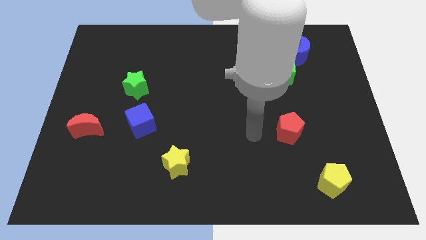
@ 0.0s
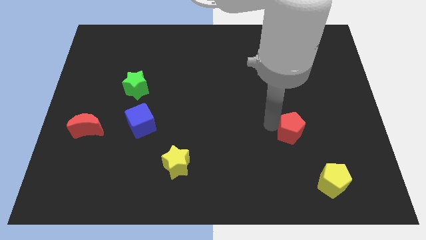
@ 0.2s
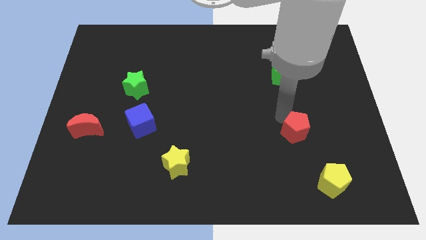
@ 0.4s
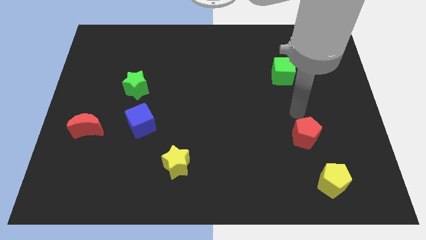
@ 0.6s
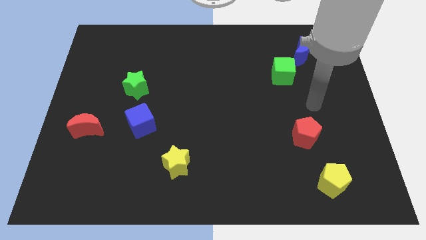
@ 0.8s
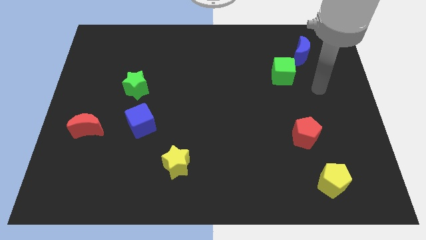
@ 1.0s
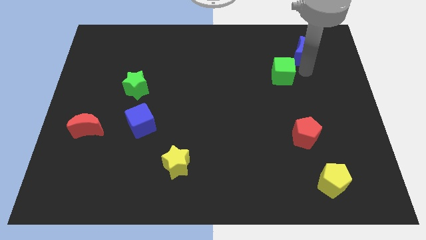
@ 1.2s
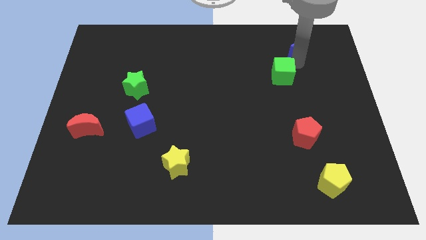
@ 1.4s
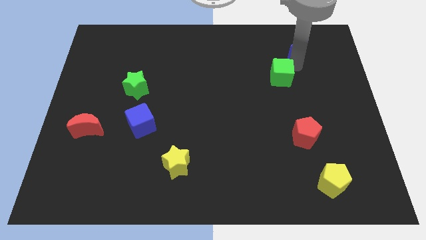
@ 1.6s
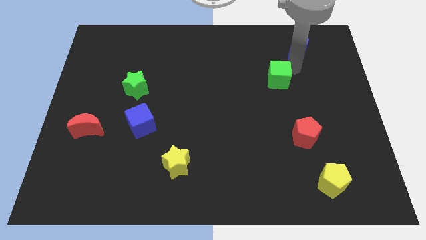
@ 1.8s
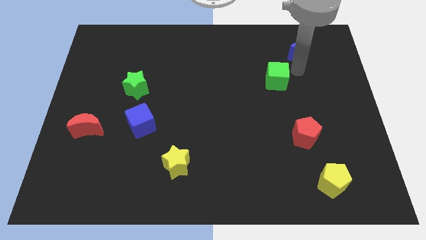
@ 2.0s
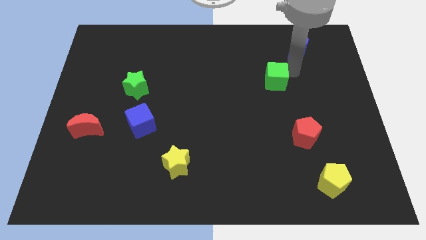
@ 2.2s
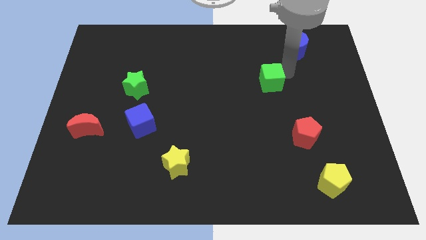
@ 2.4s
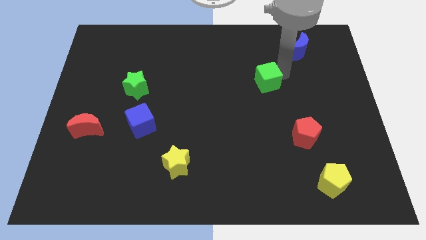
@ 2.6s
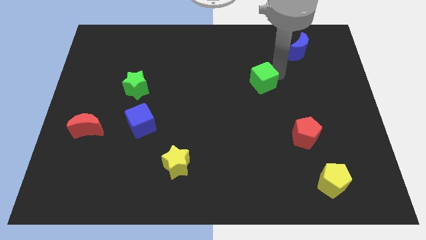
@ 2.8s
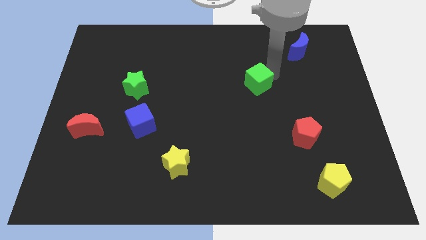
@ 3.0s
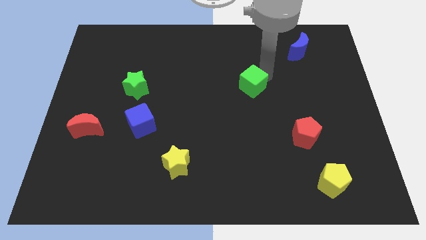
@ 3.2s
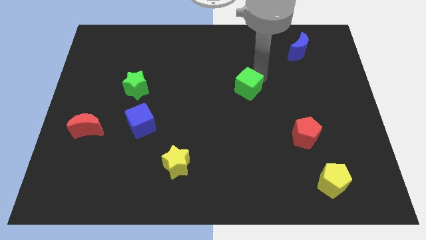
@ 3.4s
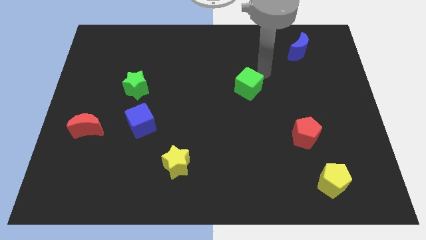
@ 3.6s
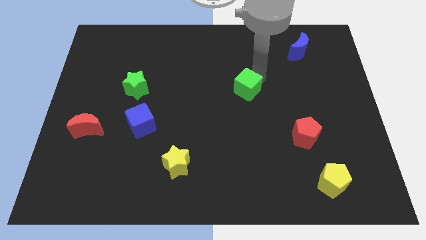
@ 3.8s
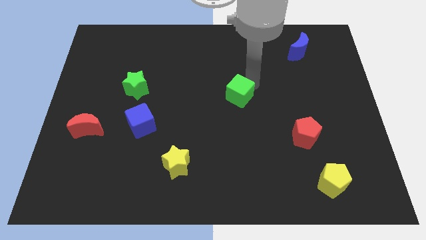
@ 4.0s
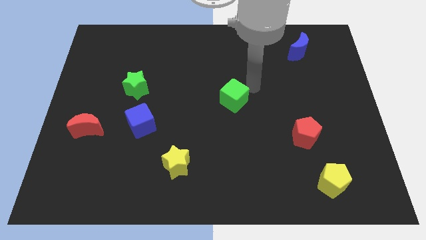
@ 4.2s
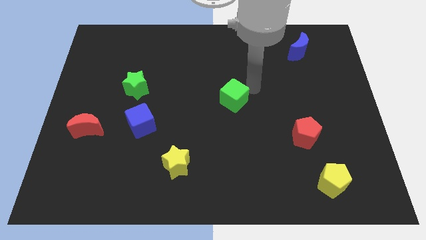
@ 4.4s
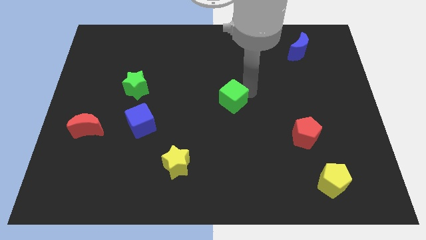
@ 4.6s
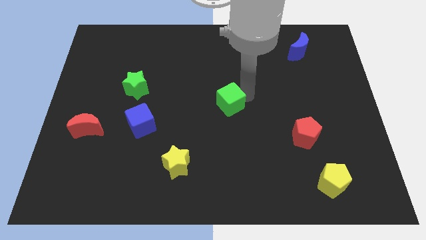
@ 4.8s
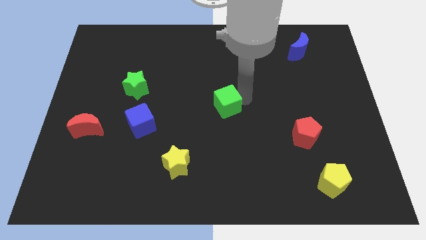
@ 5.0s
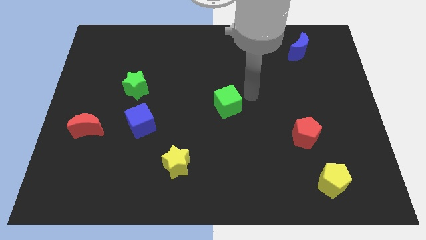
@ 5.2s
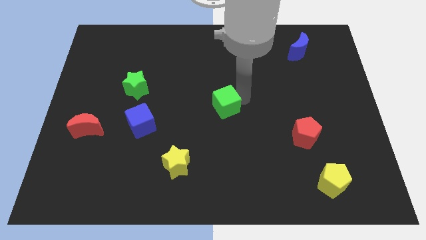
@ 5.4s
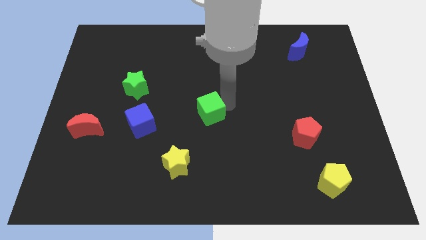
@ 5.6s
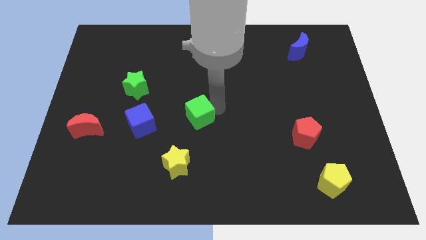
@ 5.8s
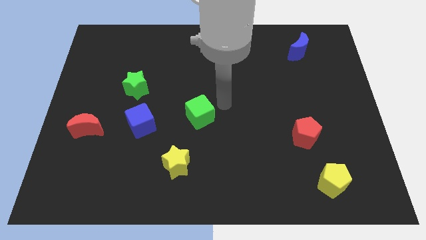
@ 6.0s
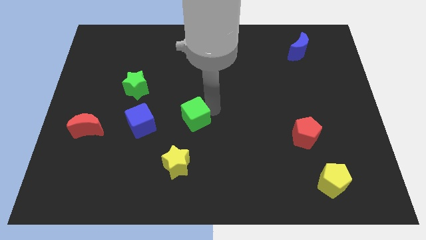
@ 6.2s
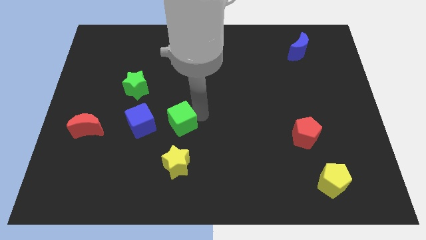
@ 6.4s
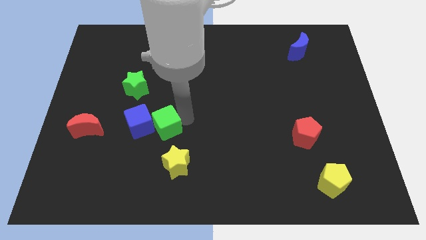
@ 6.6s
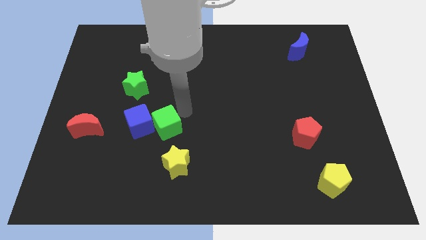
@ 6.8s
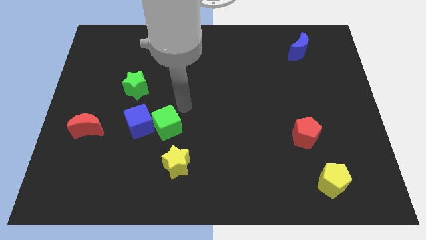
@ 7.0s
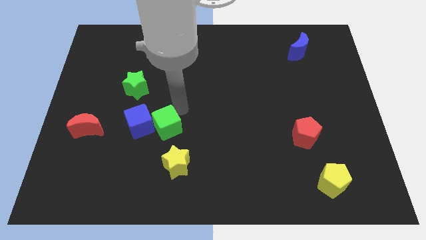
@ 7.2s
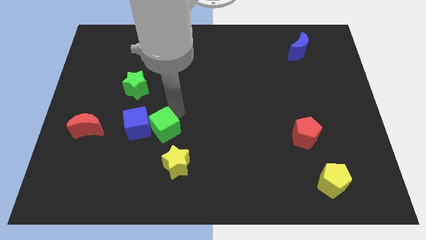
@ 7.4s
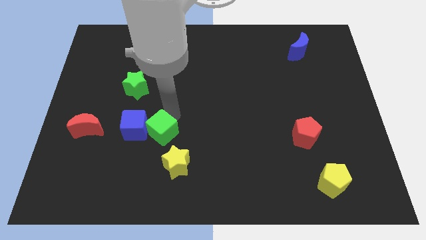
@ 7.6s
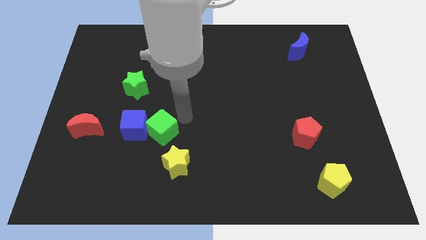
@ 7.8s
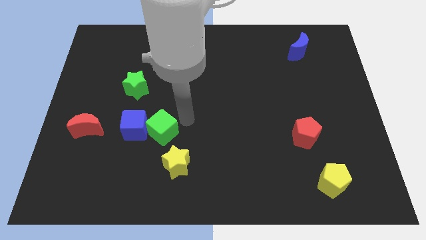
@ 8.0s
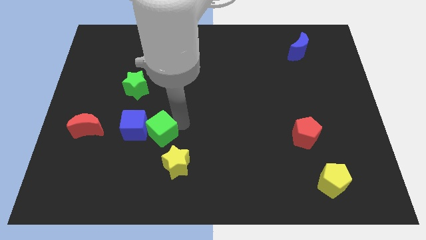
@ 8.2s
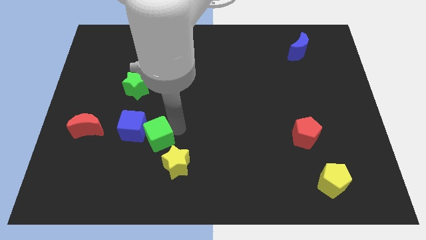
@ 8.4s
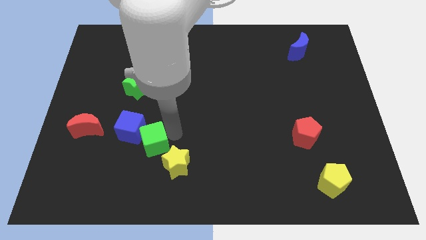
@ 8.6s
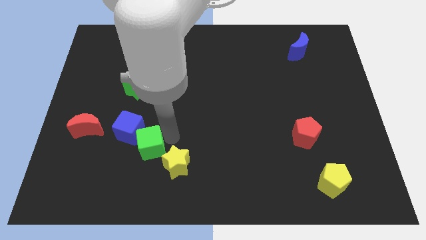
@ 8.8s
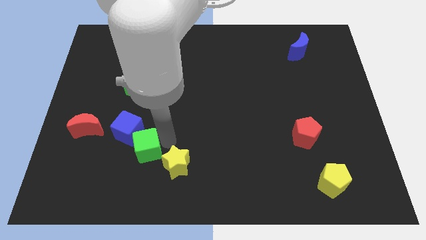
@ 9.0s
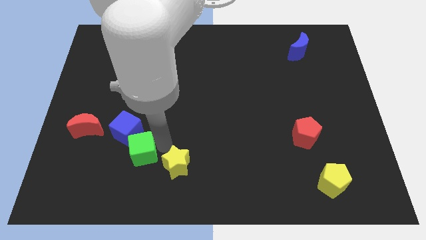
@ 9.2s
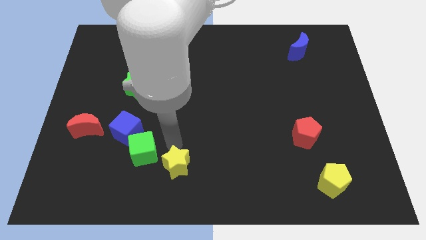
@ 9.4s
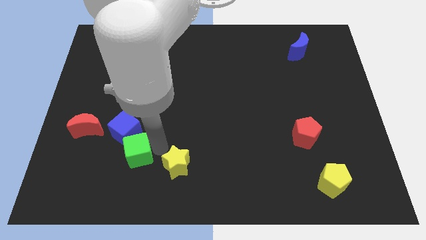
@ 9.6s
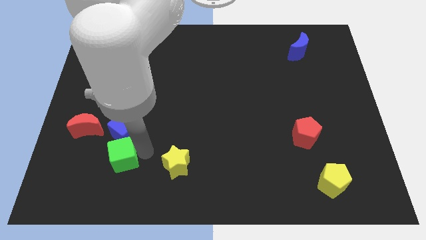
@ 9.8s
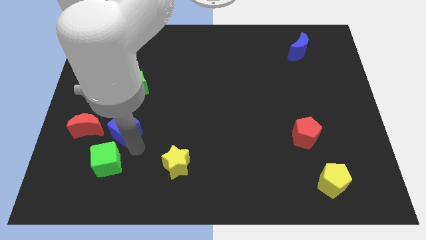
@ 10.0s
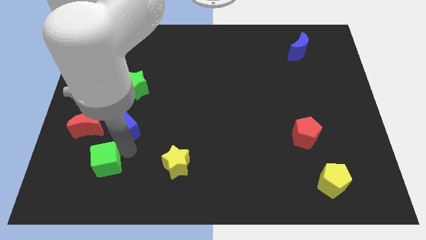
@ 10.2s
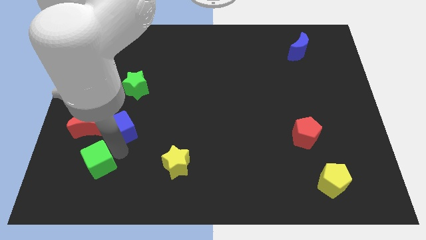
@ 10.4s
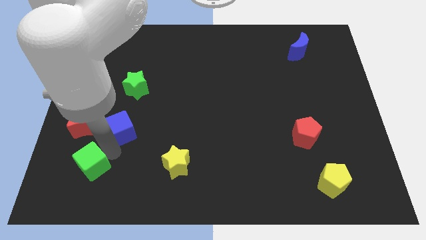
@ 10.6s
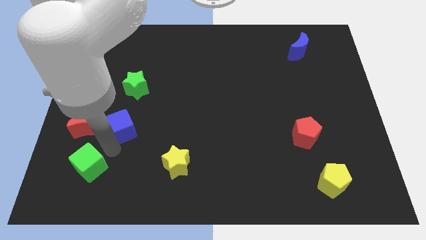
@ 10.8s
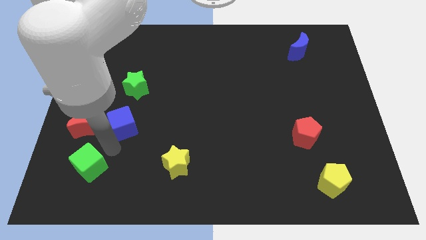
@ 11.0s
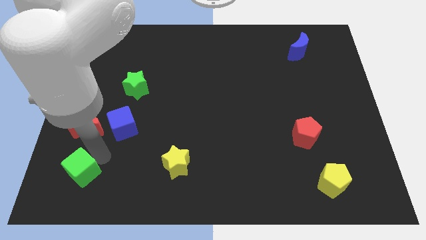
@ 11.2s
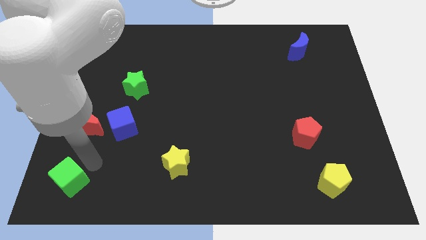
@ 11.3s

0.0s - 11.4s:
put the green cube to the bottom left

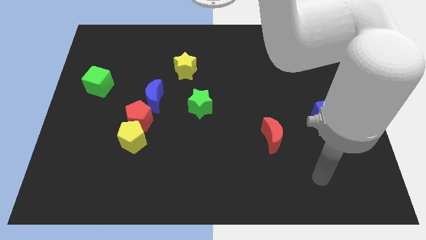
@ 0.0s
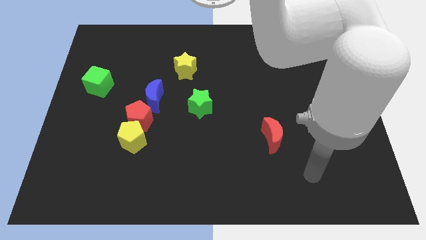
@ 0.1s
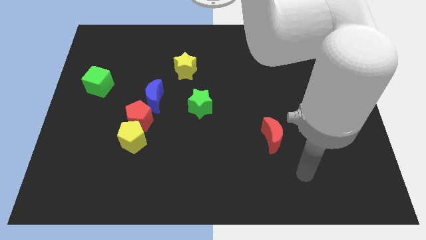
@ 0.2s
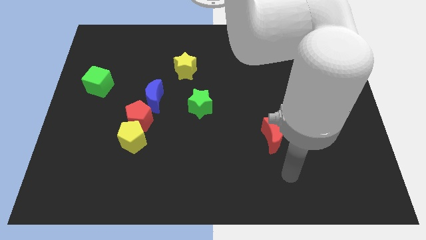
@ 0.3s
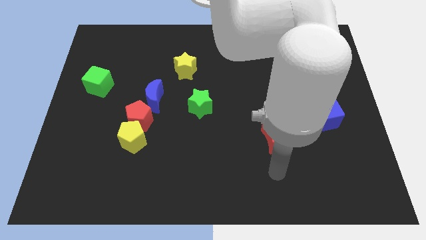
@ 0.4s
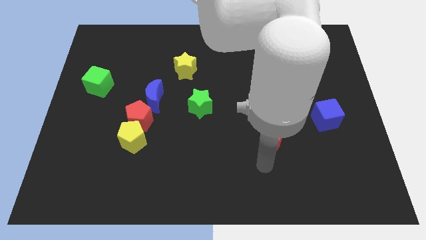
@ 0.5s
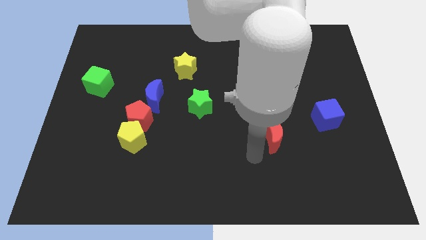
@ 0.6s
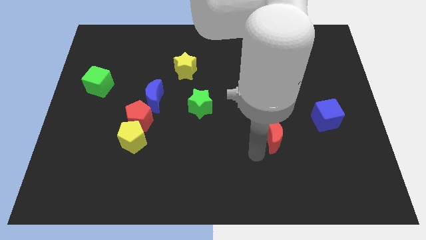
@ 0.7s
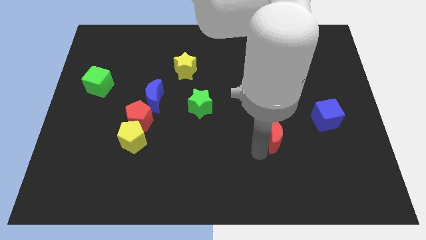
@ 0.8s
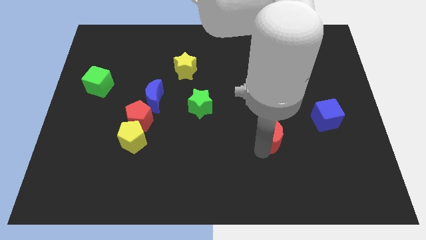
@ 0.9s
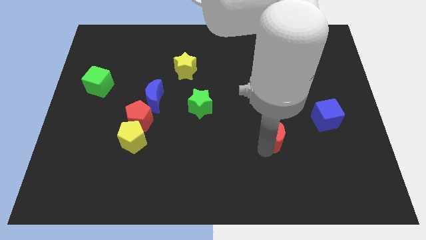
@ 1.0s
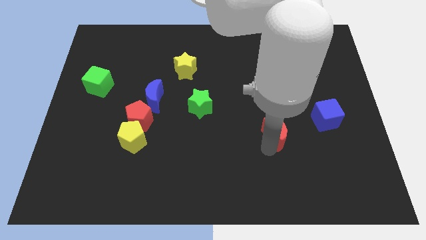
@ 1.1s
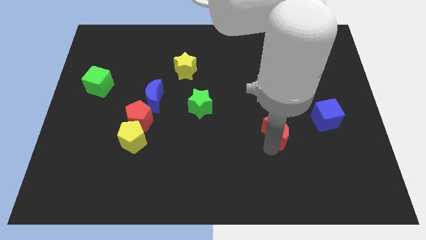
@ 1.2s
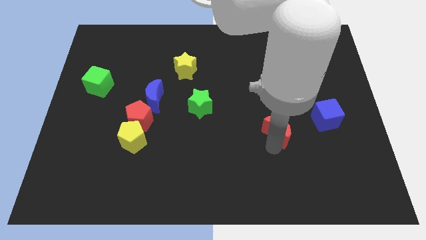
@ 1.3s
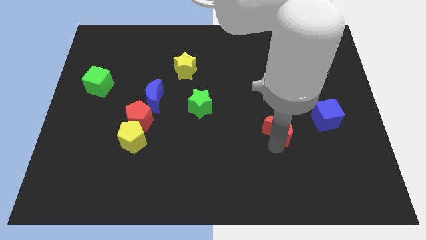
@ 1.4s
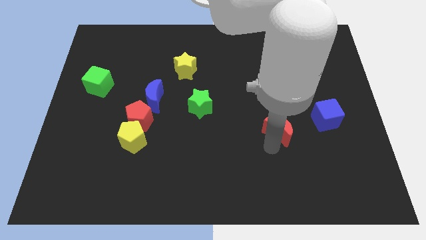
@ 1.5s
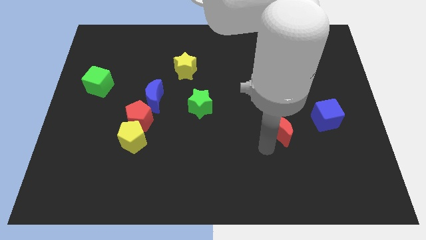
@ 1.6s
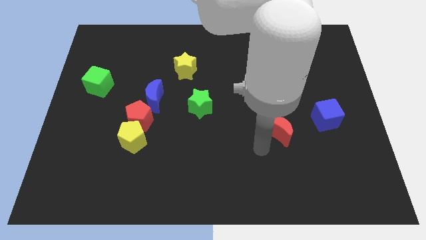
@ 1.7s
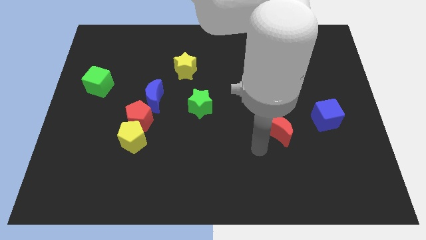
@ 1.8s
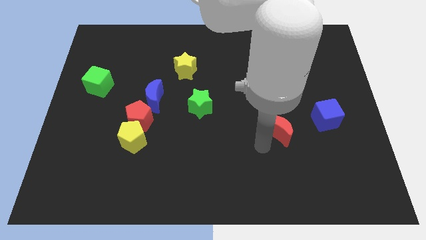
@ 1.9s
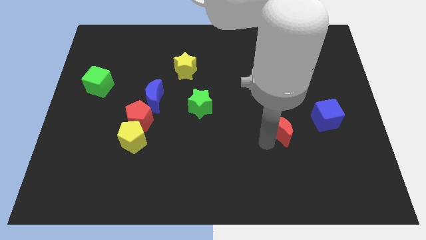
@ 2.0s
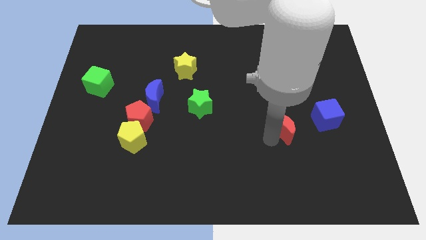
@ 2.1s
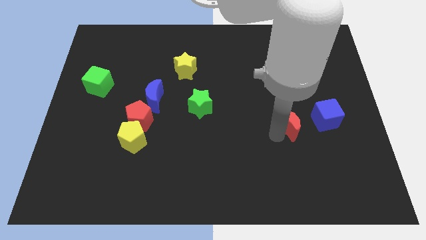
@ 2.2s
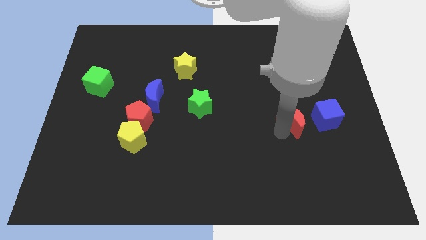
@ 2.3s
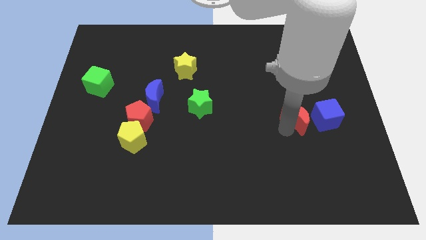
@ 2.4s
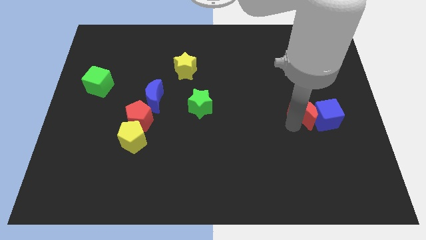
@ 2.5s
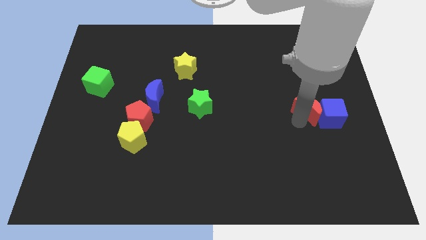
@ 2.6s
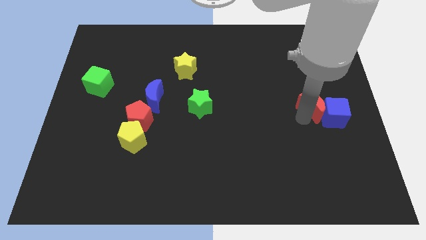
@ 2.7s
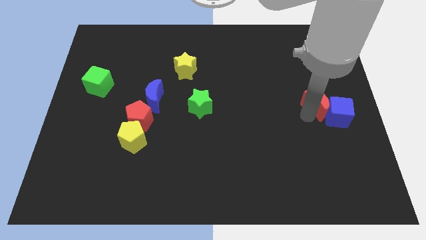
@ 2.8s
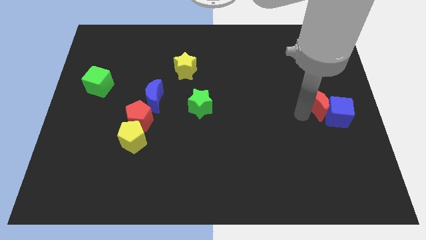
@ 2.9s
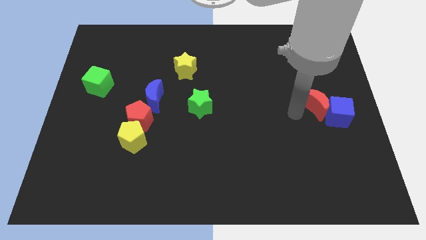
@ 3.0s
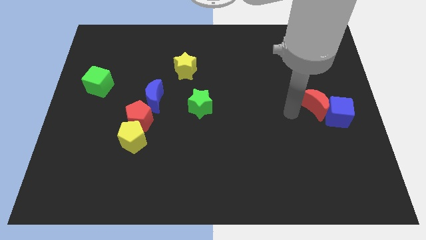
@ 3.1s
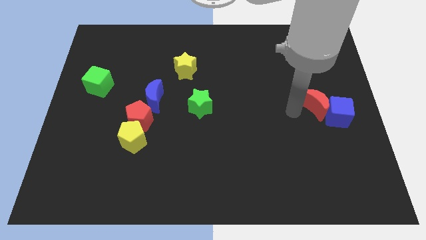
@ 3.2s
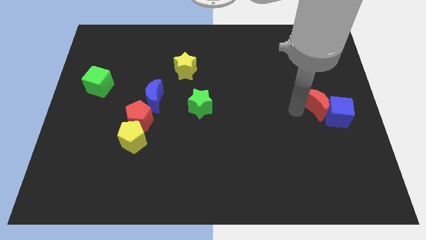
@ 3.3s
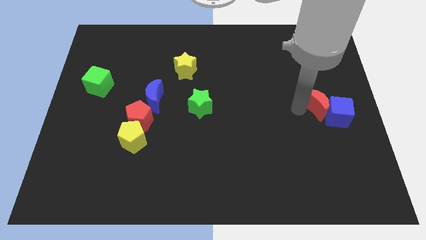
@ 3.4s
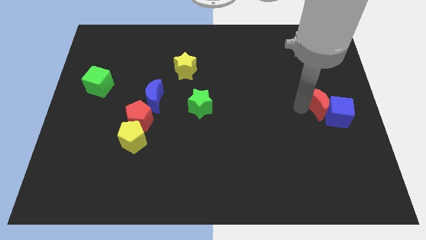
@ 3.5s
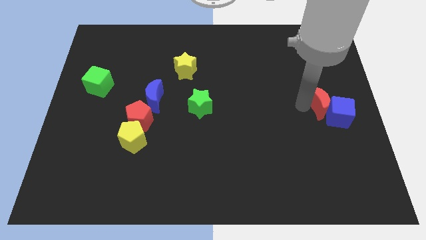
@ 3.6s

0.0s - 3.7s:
slide the red moon to the right side of the board
